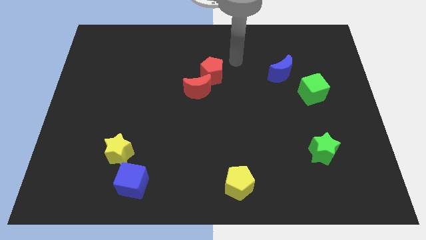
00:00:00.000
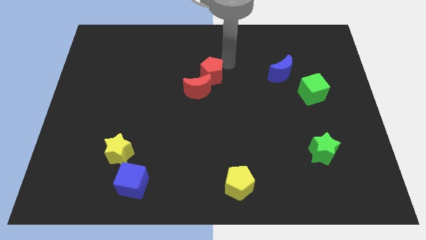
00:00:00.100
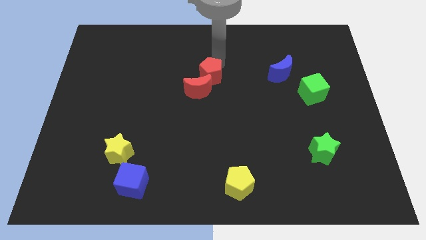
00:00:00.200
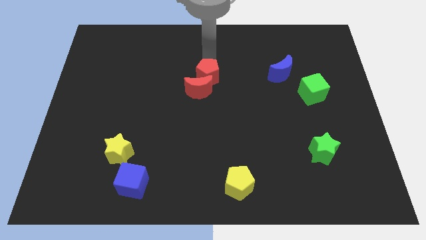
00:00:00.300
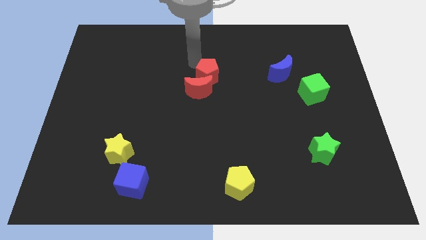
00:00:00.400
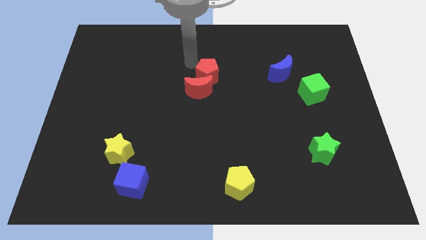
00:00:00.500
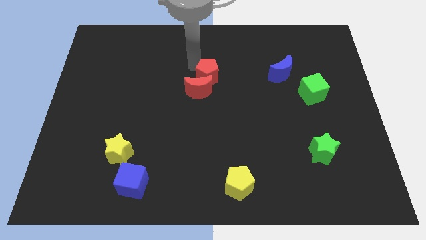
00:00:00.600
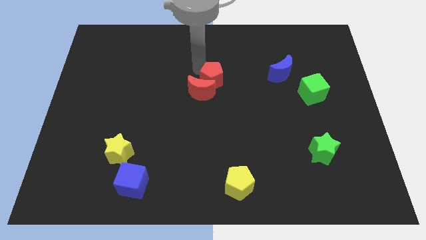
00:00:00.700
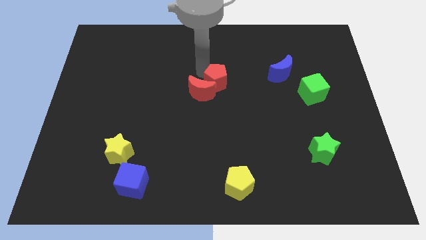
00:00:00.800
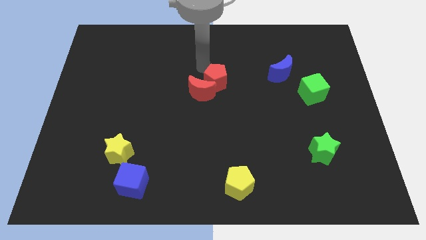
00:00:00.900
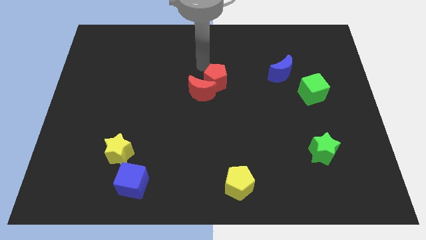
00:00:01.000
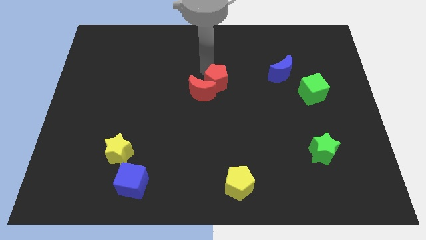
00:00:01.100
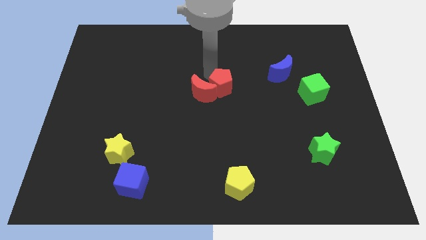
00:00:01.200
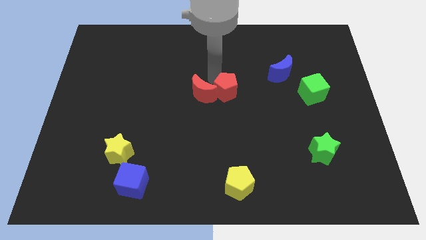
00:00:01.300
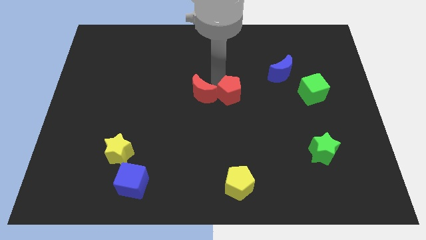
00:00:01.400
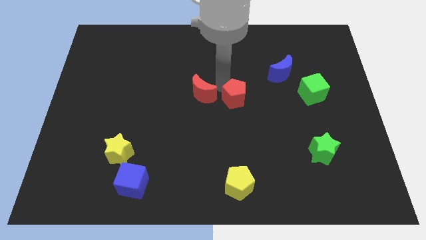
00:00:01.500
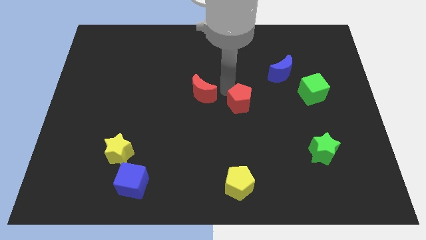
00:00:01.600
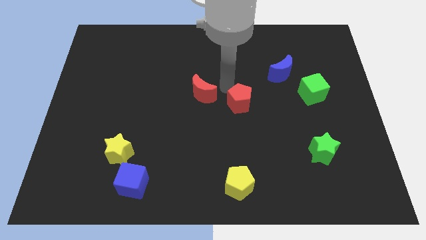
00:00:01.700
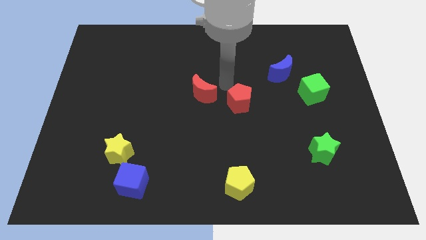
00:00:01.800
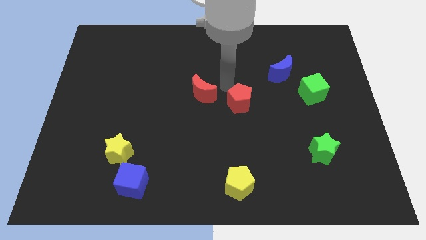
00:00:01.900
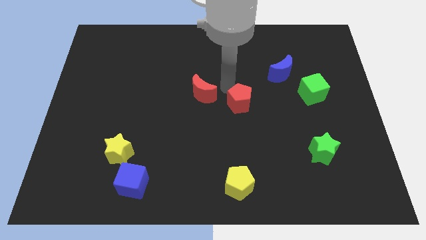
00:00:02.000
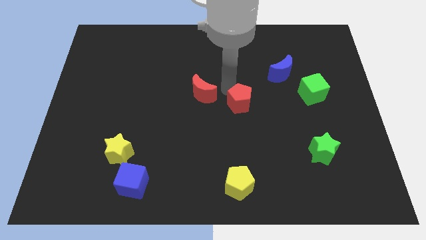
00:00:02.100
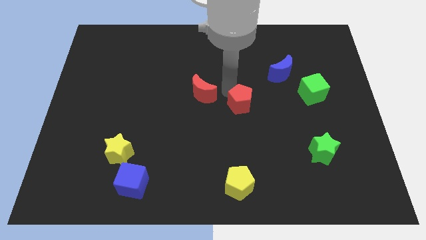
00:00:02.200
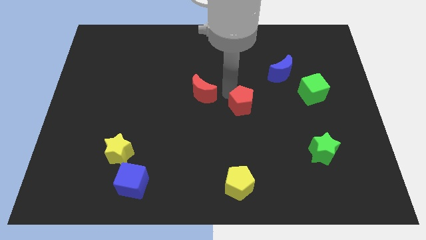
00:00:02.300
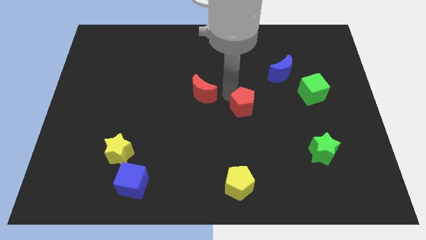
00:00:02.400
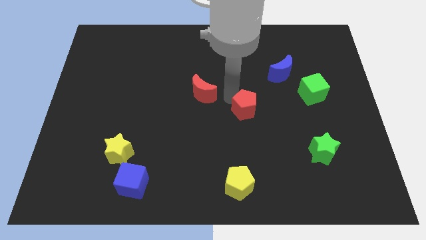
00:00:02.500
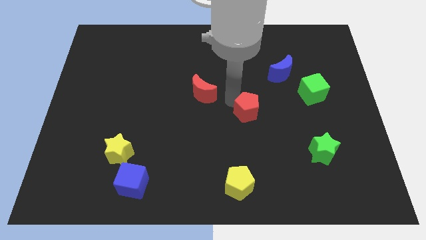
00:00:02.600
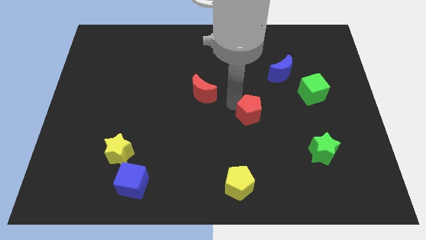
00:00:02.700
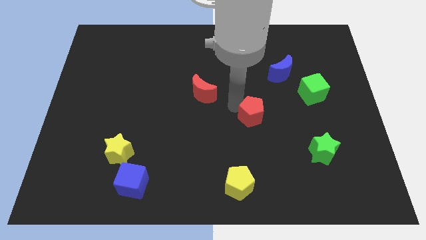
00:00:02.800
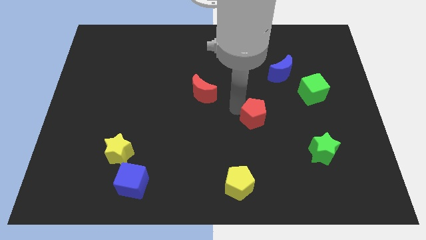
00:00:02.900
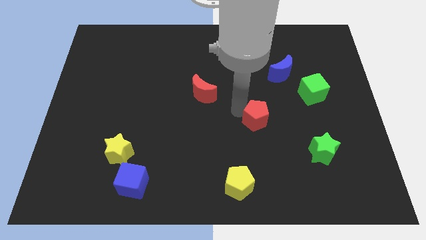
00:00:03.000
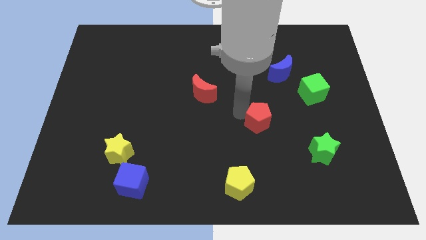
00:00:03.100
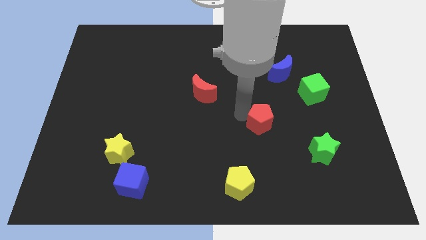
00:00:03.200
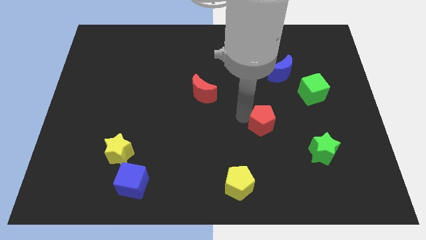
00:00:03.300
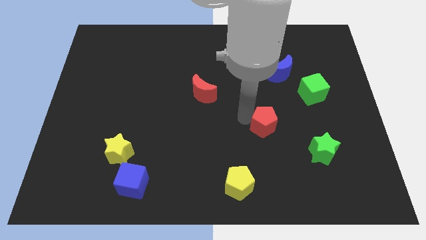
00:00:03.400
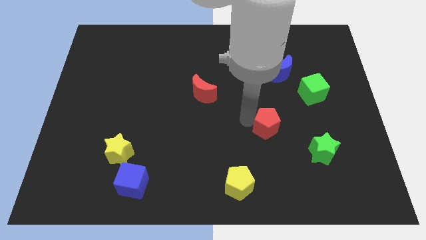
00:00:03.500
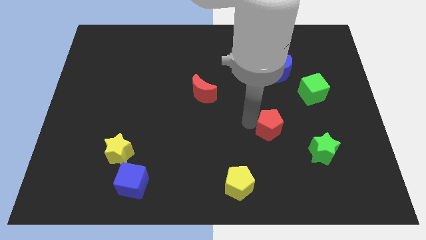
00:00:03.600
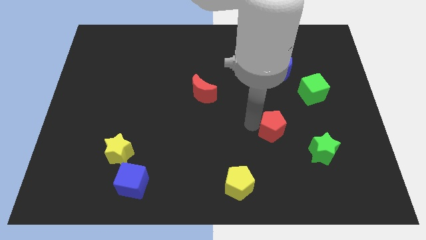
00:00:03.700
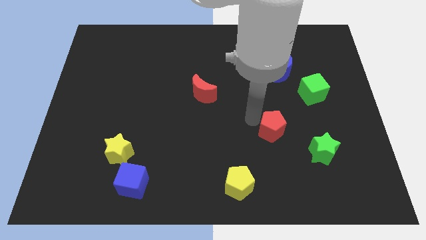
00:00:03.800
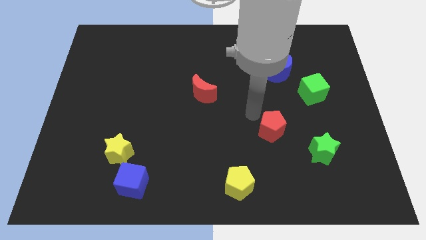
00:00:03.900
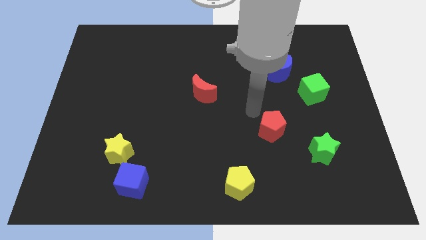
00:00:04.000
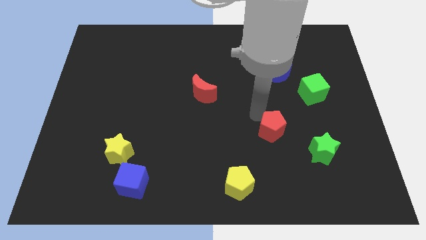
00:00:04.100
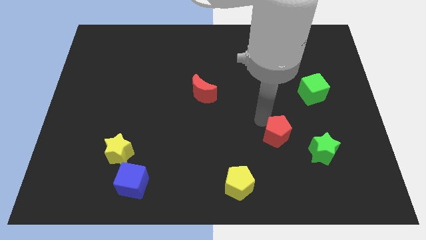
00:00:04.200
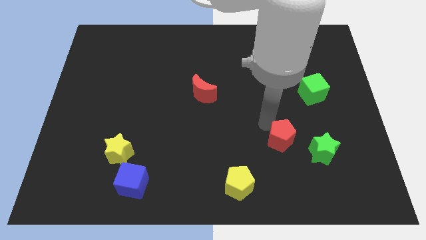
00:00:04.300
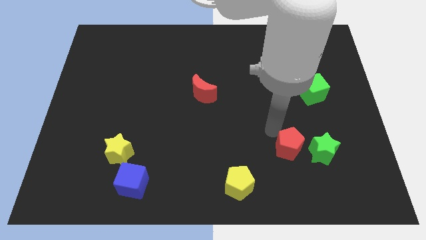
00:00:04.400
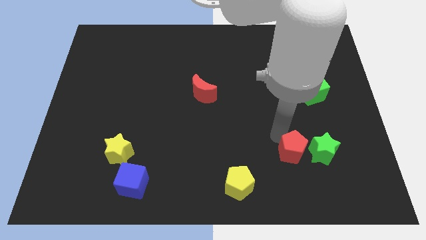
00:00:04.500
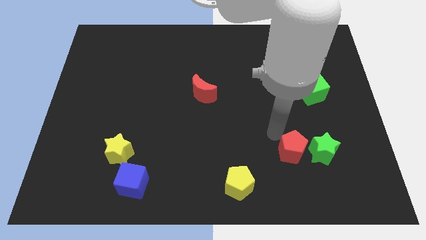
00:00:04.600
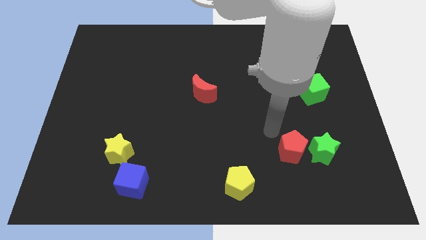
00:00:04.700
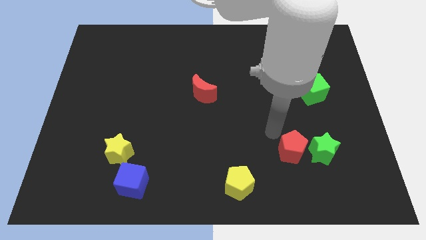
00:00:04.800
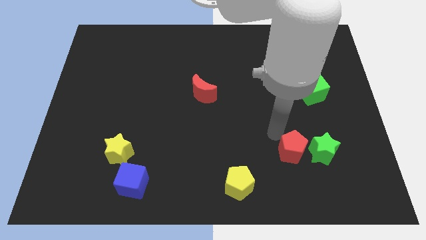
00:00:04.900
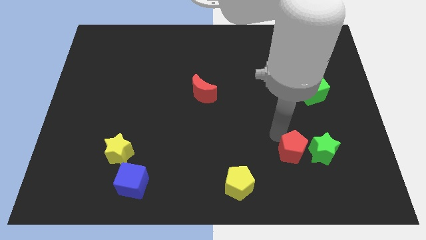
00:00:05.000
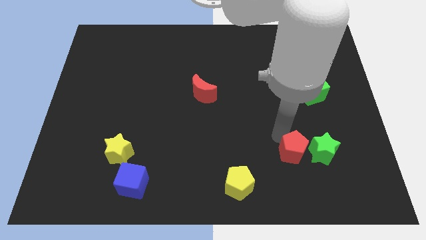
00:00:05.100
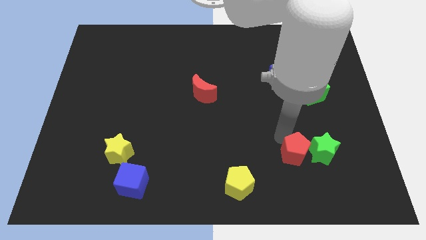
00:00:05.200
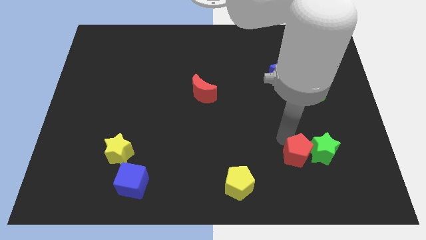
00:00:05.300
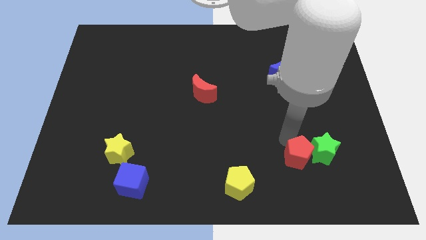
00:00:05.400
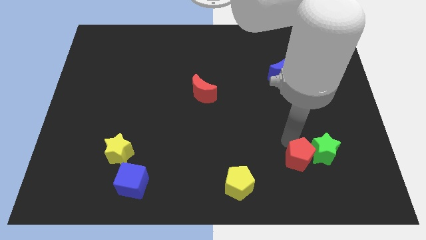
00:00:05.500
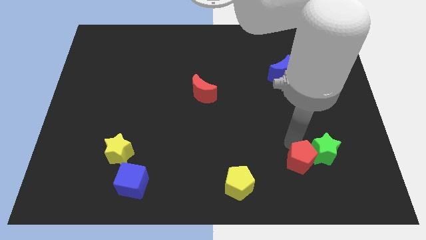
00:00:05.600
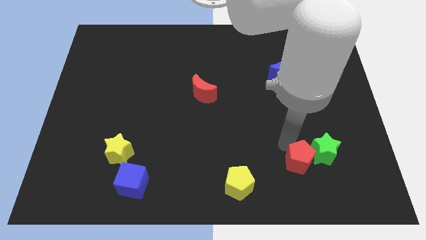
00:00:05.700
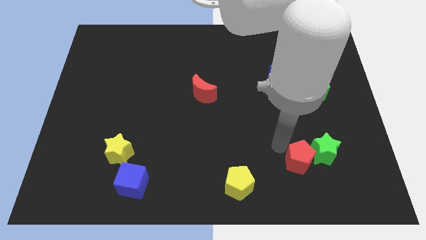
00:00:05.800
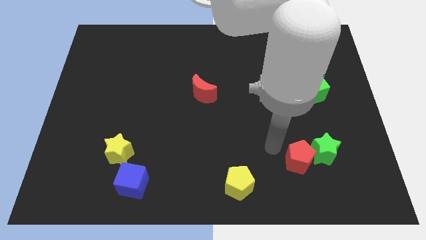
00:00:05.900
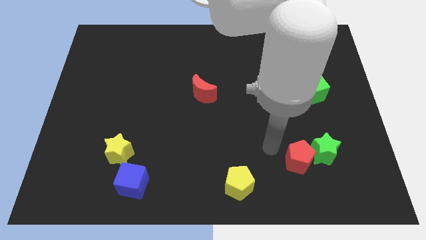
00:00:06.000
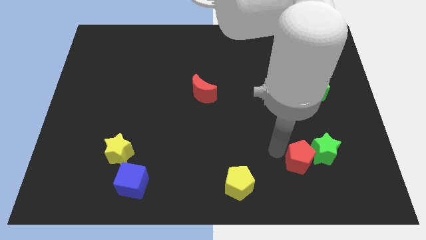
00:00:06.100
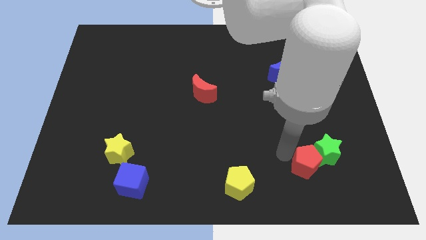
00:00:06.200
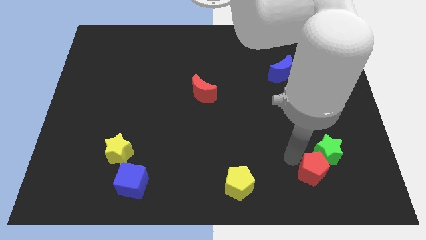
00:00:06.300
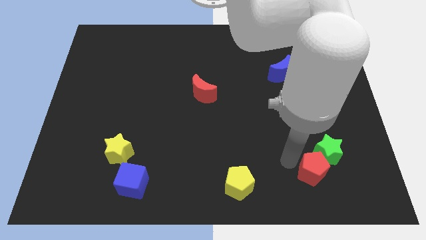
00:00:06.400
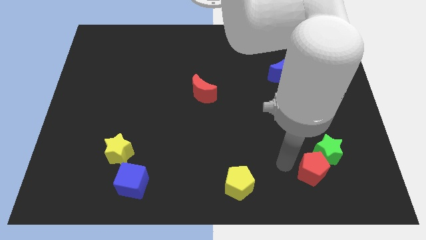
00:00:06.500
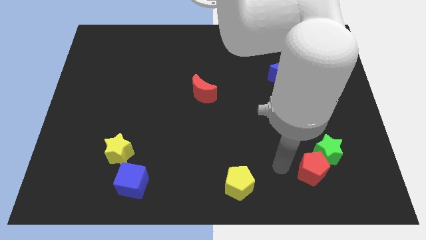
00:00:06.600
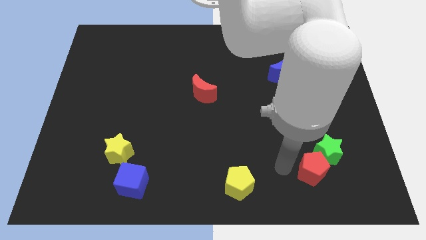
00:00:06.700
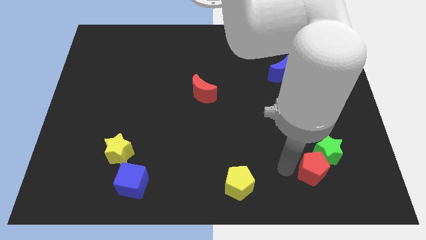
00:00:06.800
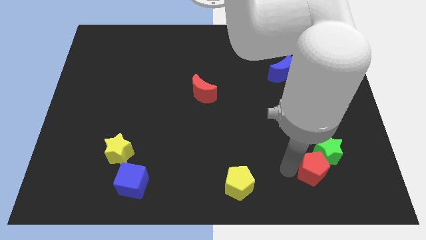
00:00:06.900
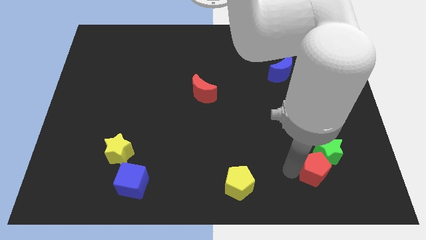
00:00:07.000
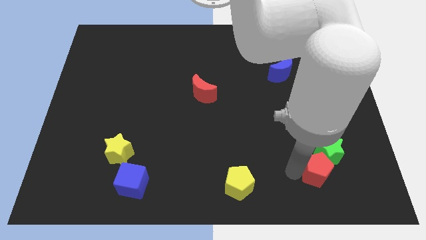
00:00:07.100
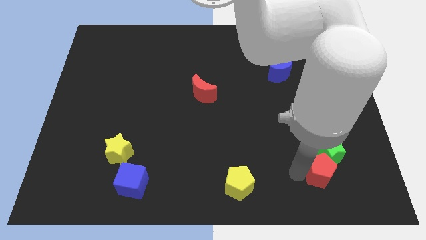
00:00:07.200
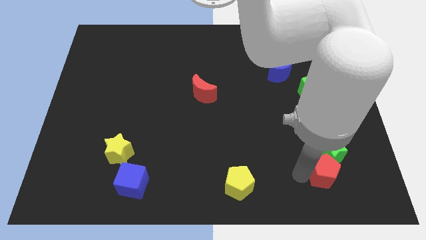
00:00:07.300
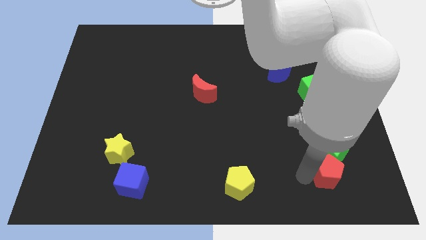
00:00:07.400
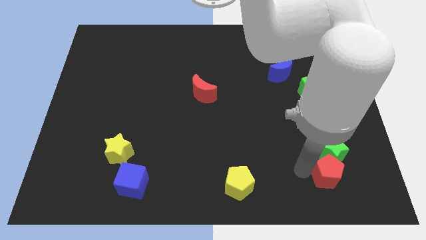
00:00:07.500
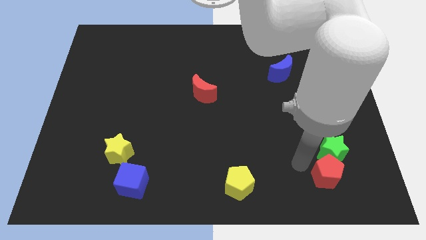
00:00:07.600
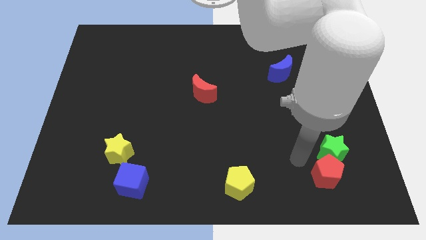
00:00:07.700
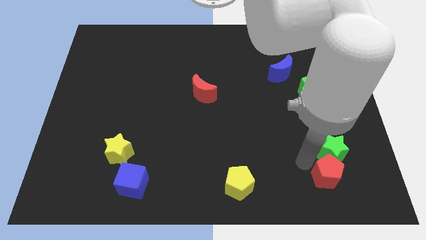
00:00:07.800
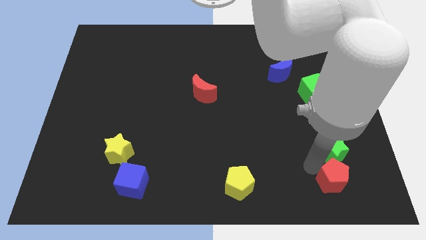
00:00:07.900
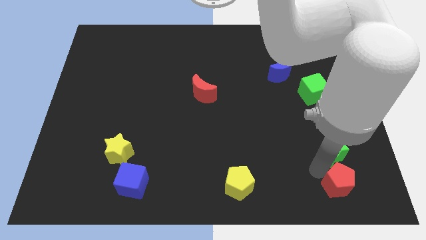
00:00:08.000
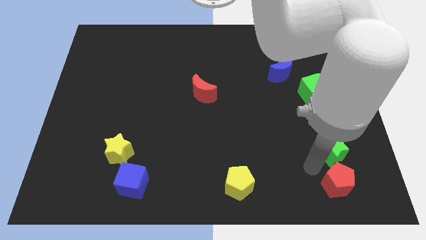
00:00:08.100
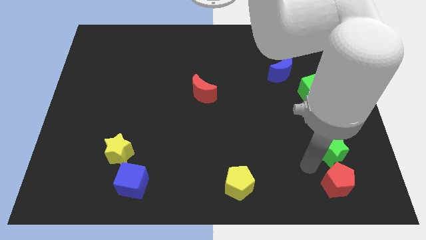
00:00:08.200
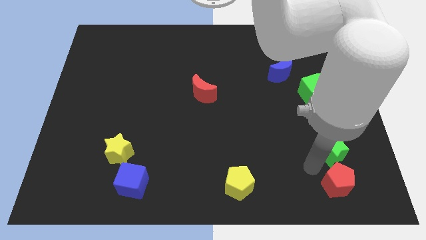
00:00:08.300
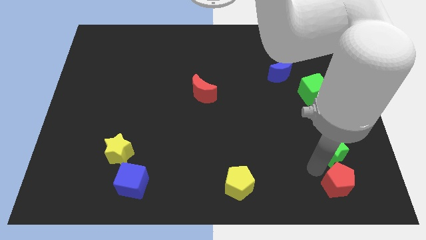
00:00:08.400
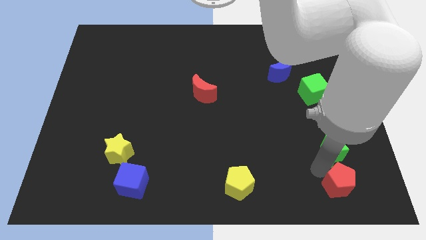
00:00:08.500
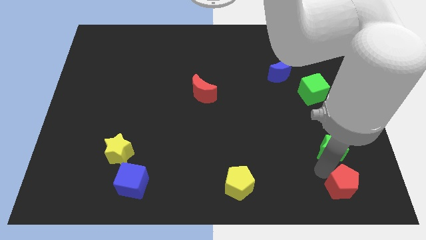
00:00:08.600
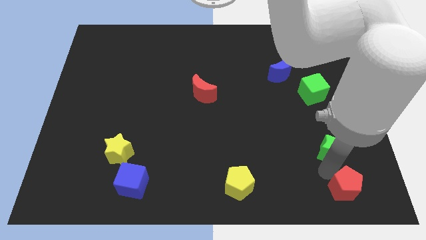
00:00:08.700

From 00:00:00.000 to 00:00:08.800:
move the red pentagon to the lower right corner
